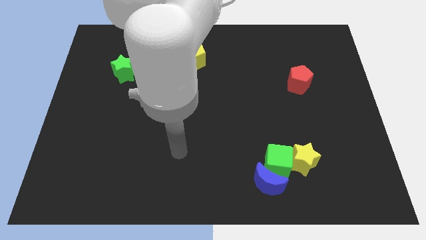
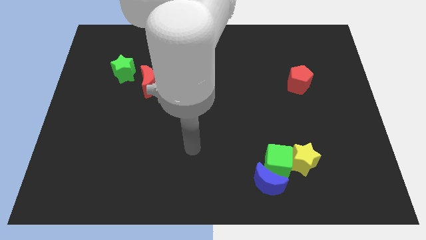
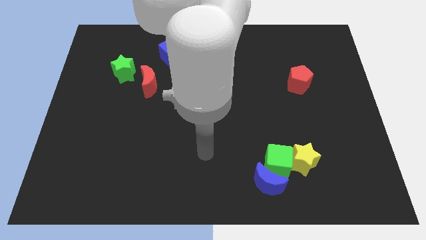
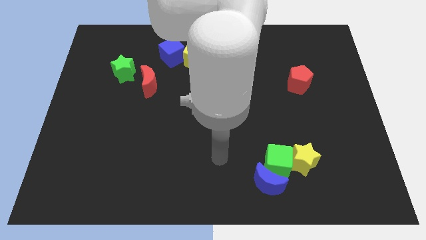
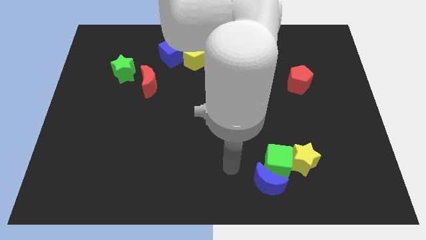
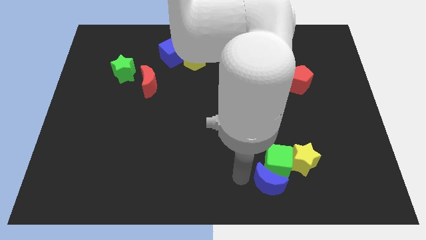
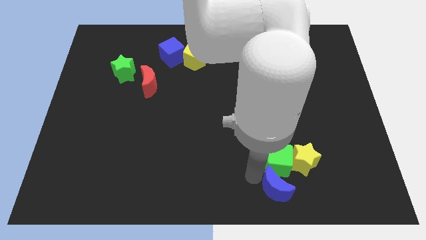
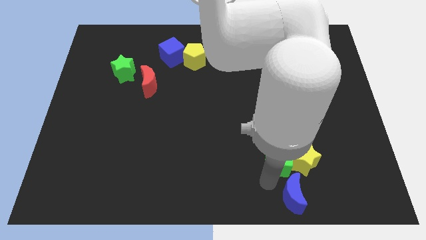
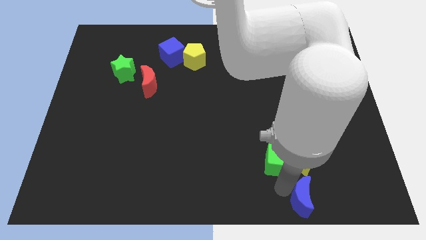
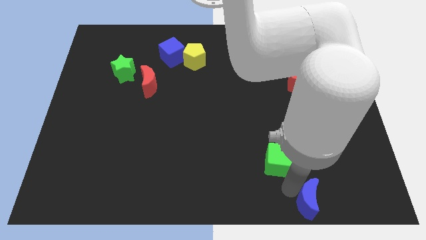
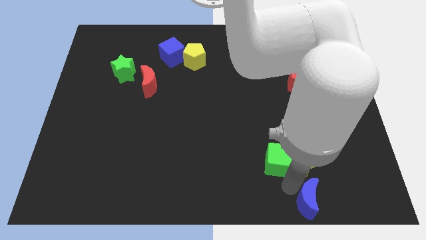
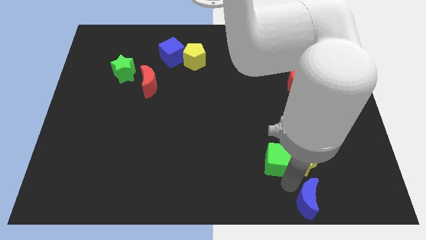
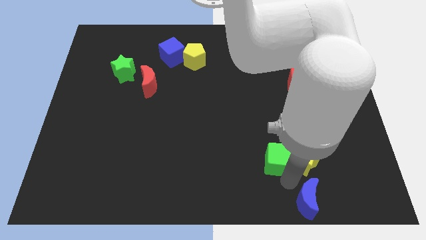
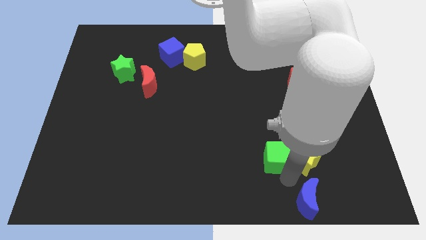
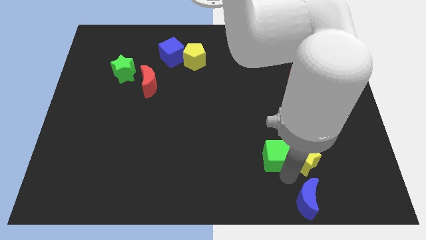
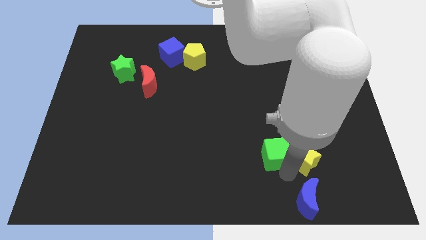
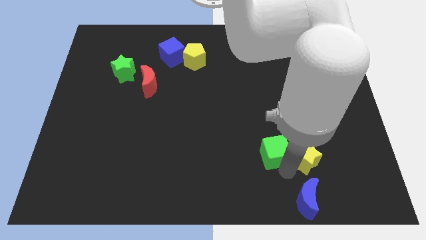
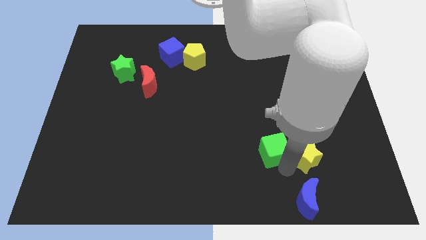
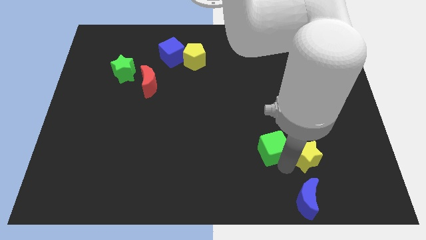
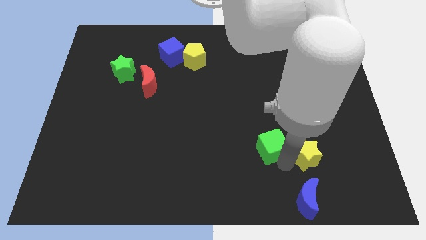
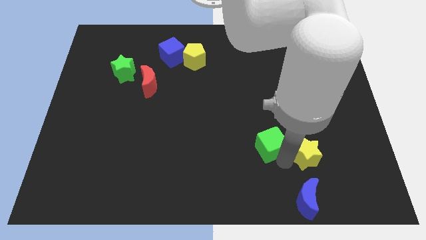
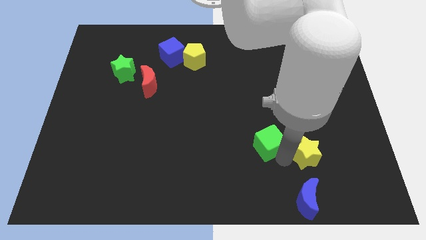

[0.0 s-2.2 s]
pull the green cube apart from the blue moon and yellow star

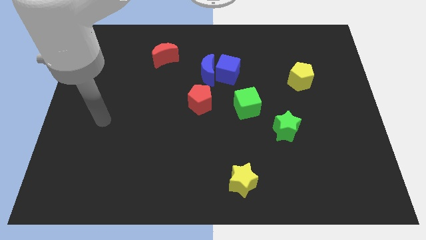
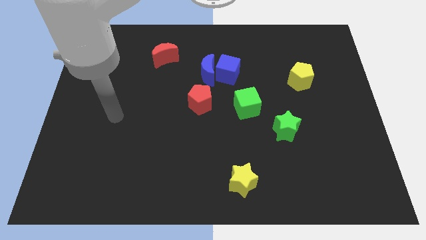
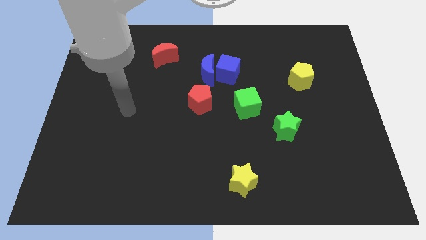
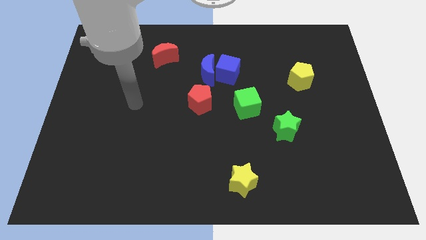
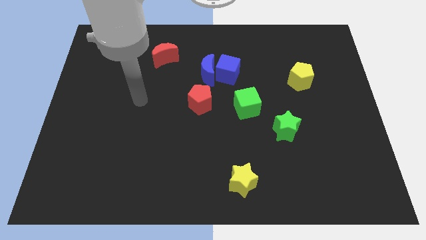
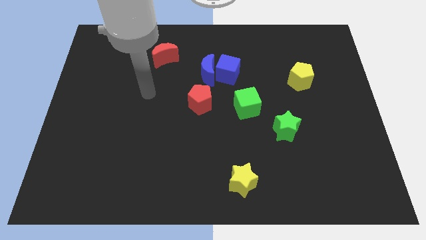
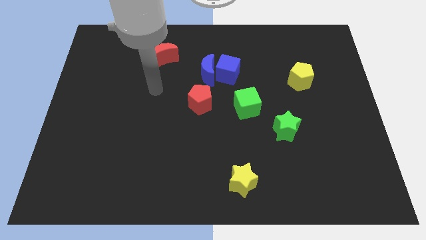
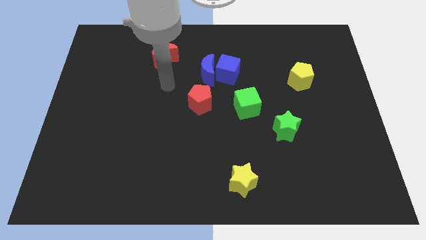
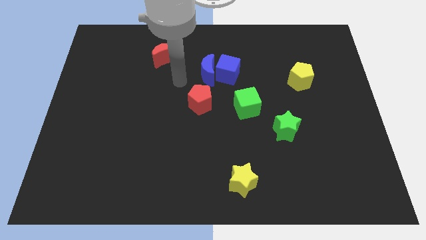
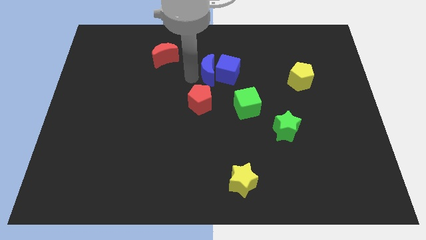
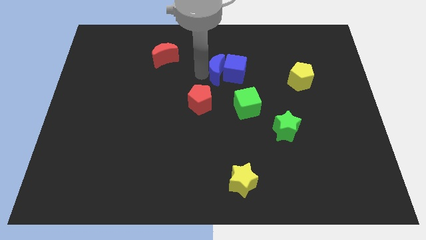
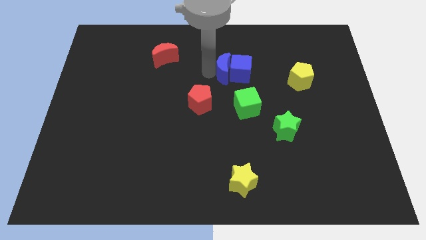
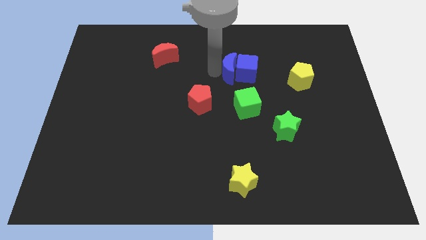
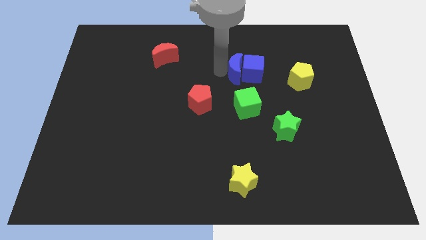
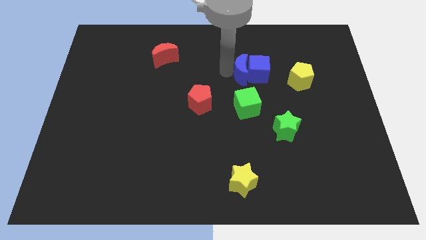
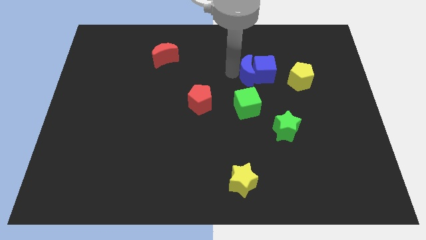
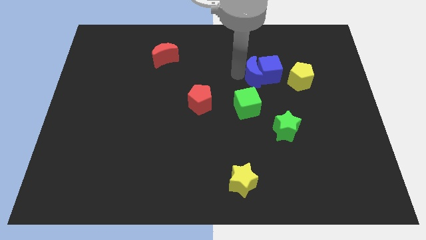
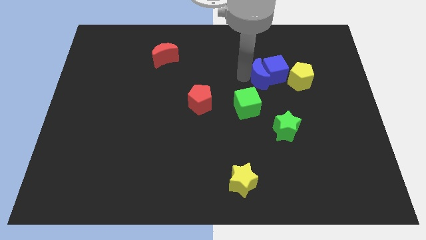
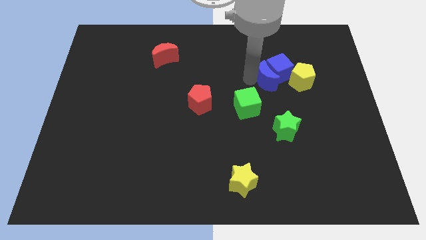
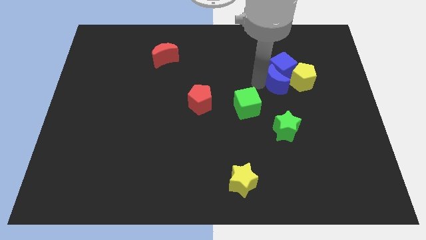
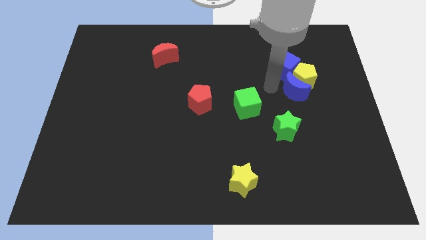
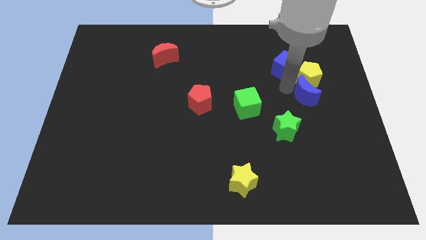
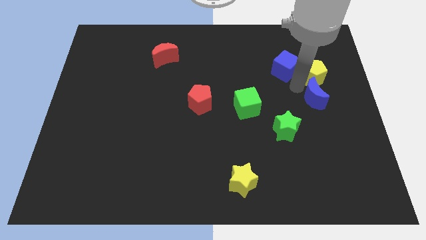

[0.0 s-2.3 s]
separate the blue cube from the blue moon

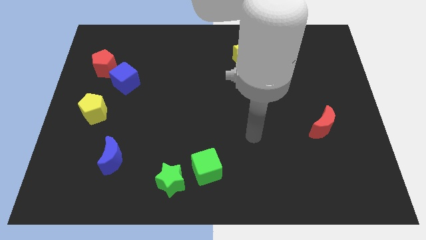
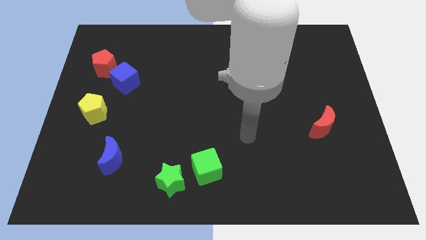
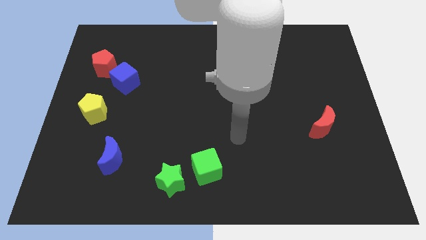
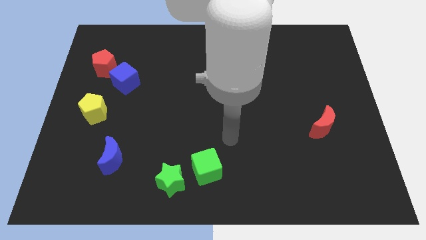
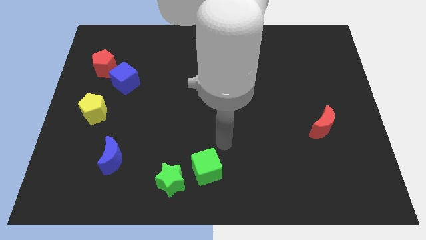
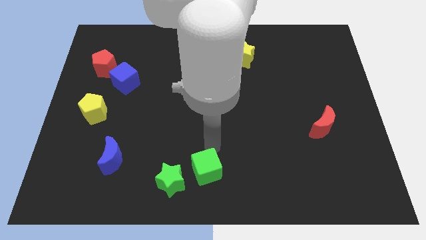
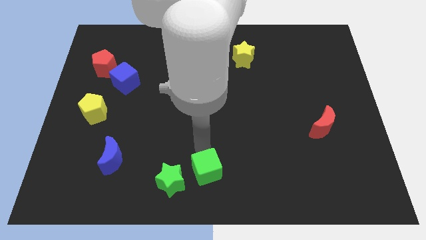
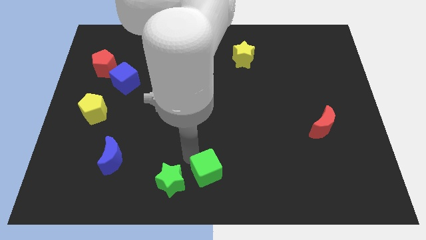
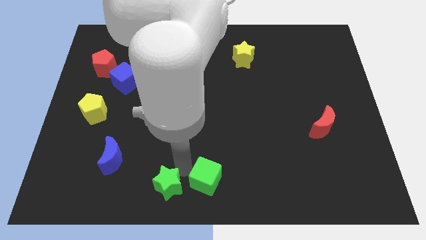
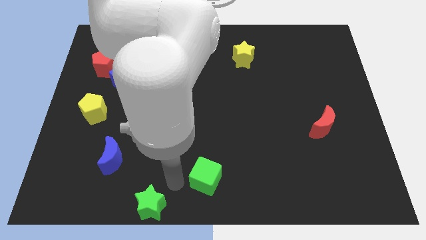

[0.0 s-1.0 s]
pull the green cube apart from the green star

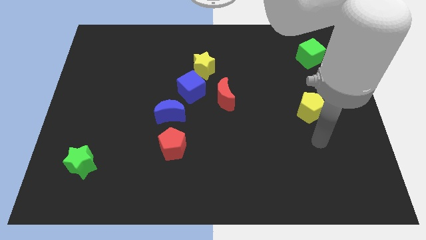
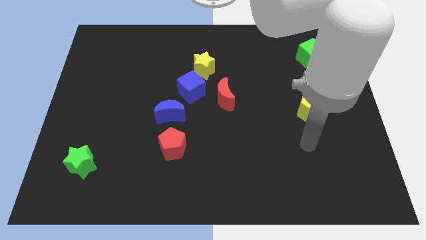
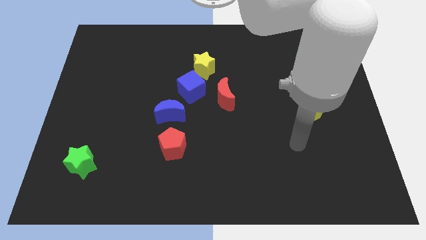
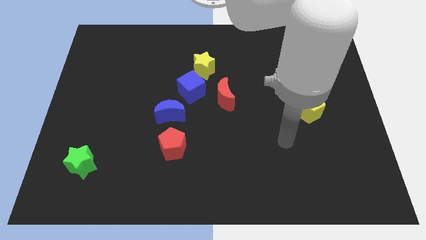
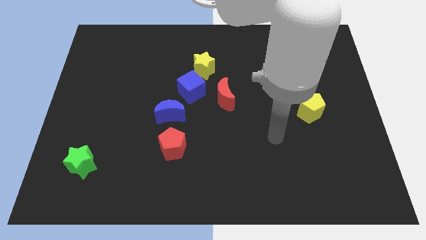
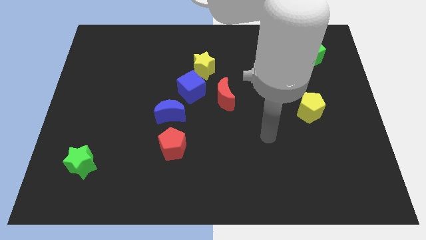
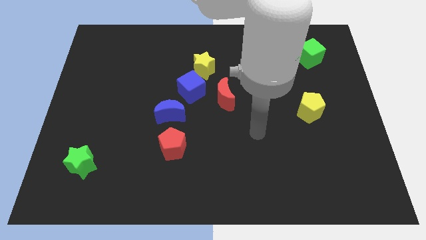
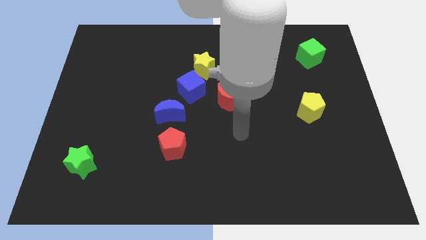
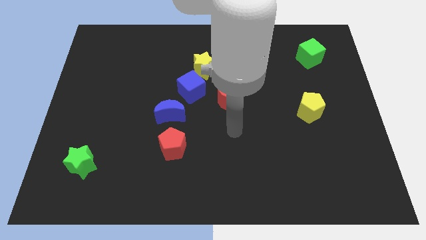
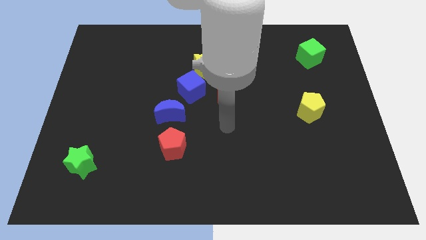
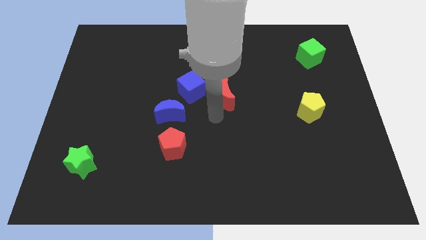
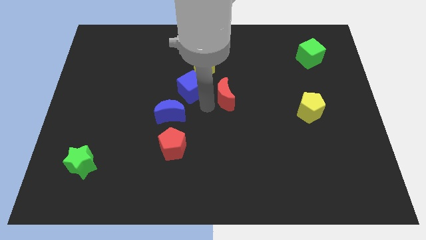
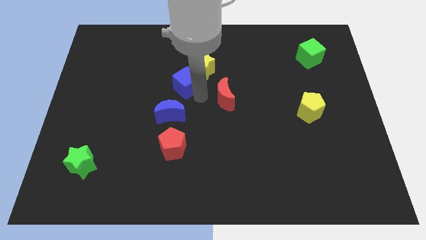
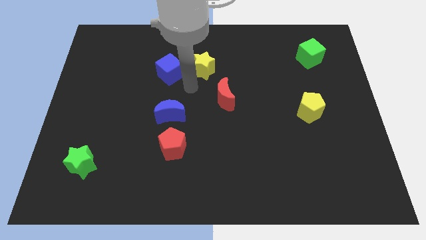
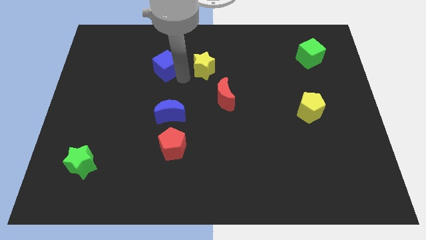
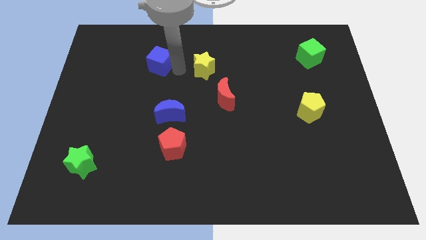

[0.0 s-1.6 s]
pull the yellow star apart from the blue cube

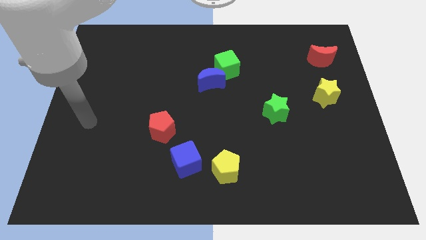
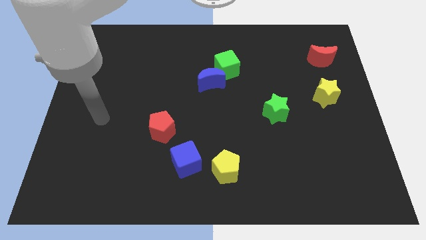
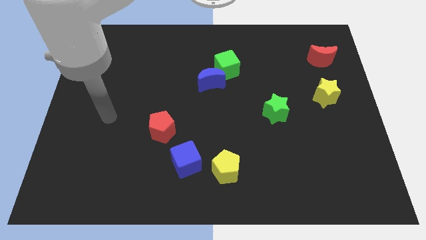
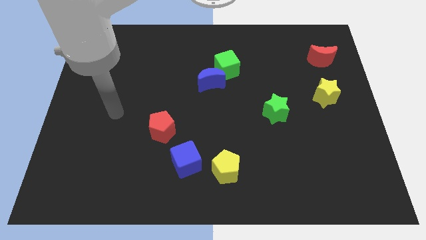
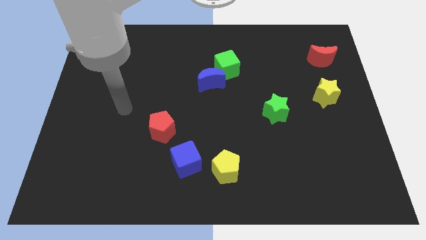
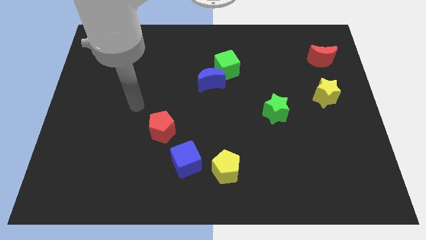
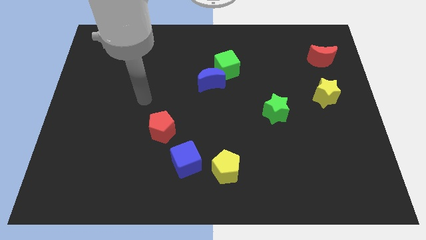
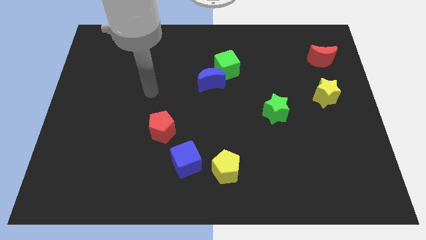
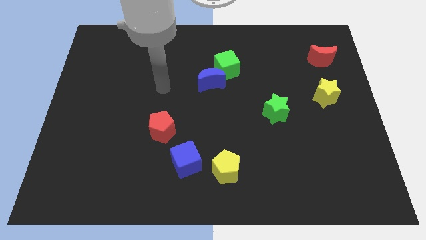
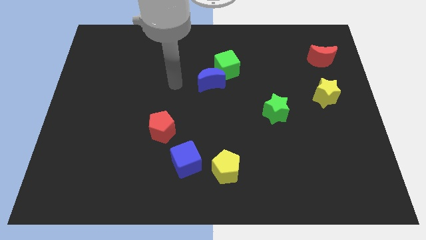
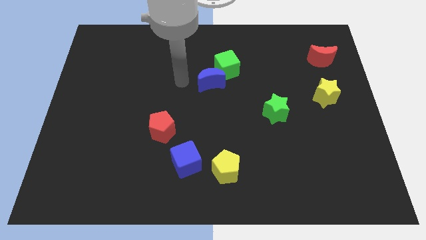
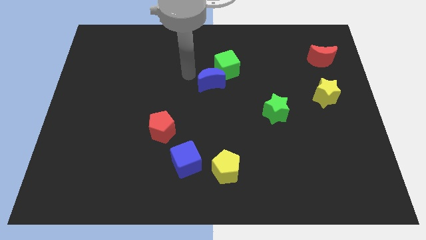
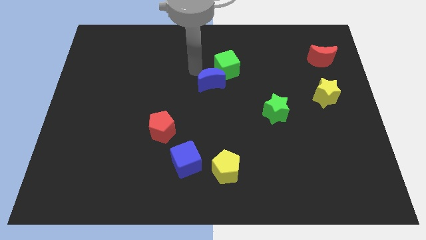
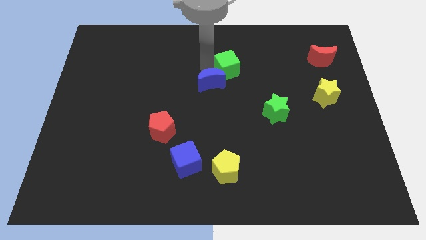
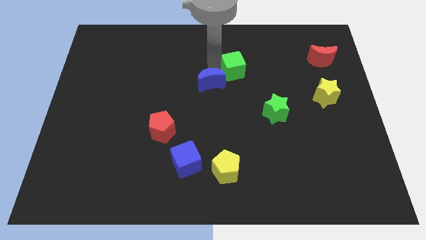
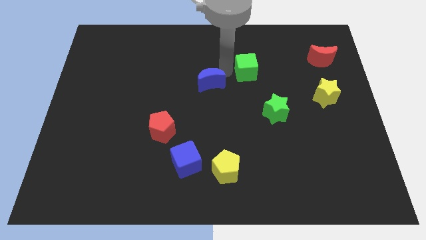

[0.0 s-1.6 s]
pull the blue moon apart from the green cube

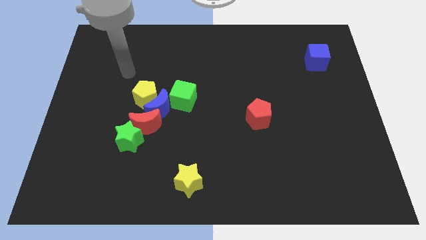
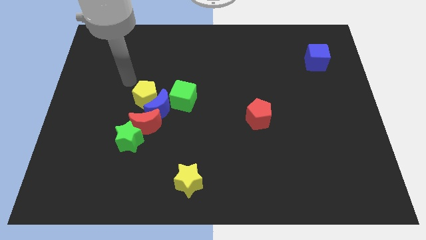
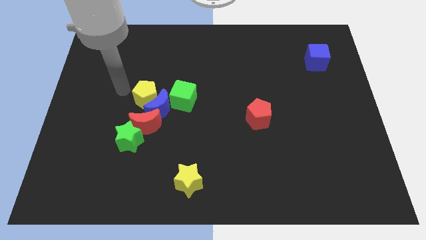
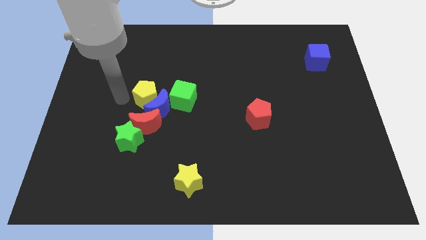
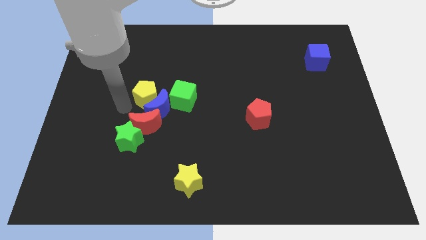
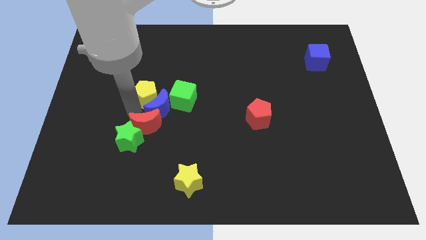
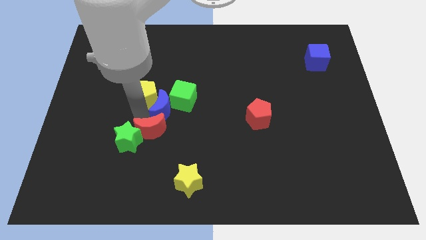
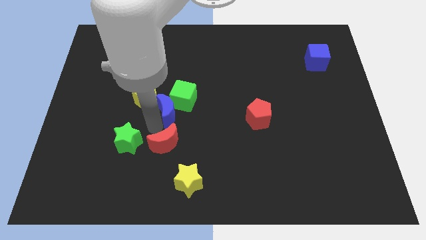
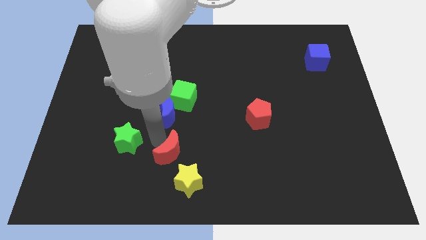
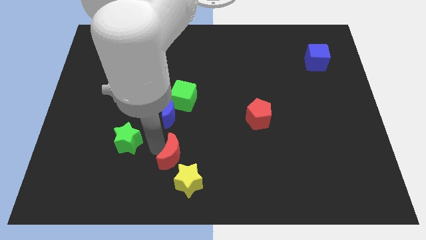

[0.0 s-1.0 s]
separate the green star from the red moon
